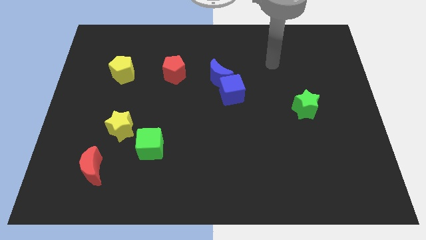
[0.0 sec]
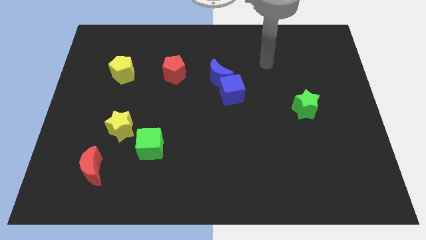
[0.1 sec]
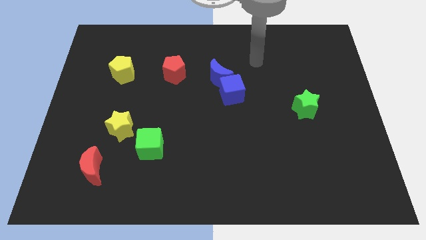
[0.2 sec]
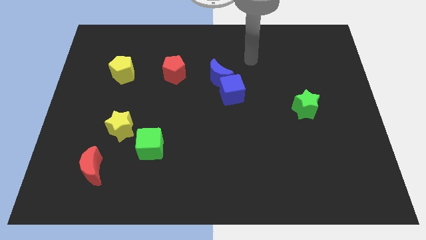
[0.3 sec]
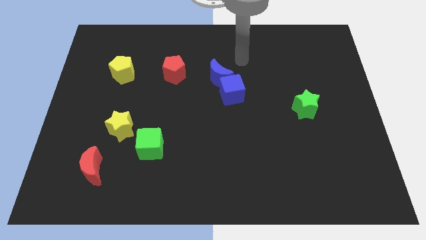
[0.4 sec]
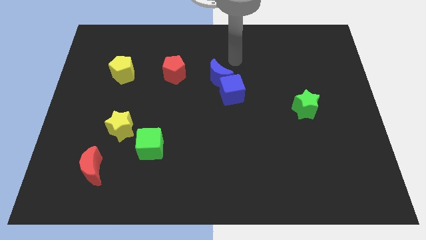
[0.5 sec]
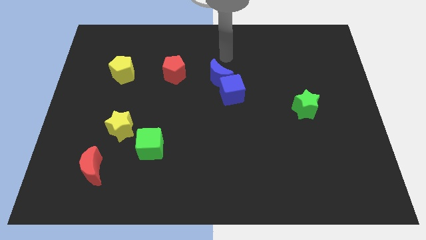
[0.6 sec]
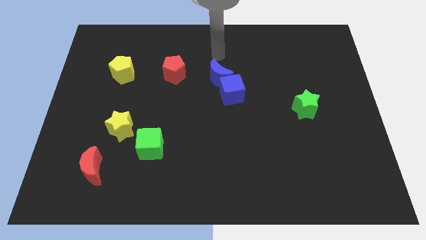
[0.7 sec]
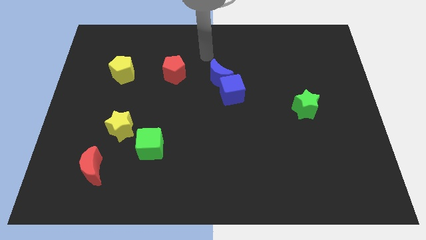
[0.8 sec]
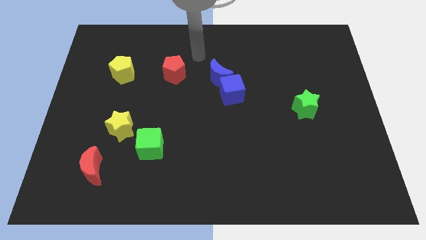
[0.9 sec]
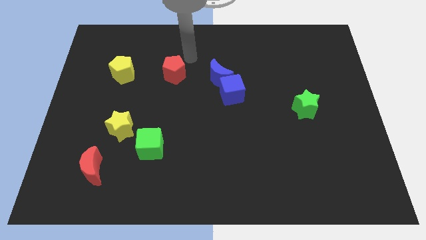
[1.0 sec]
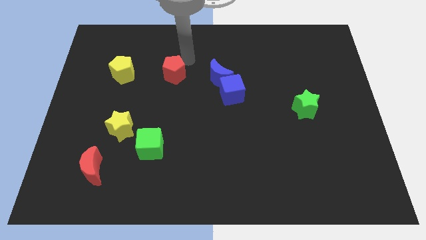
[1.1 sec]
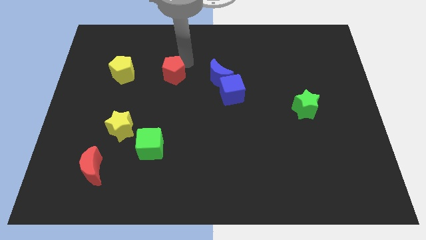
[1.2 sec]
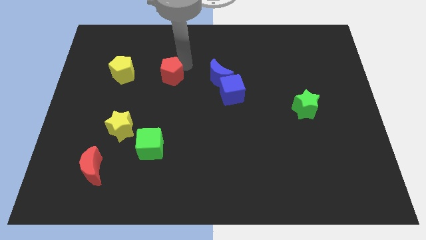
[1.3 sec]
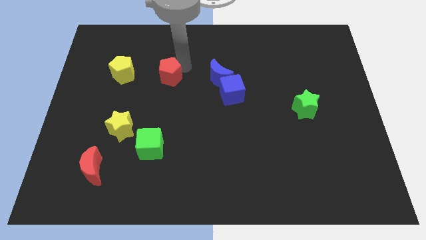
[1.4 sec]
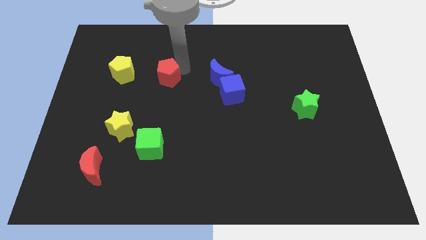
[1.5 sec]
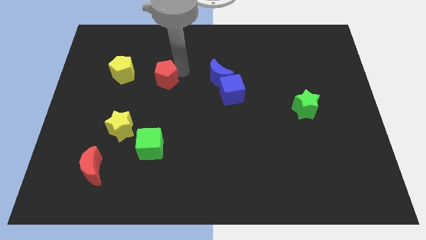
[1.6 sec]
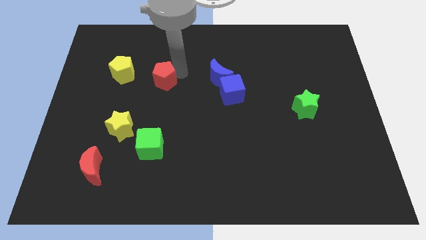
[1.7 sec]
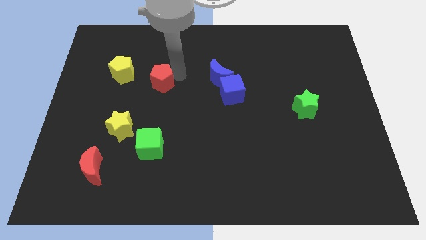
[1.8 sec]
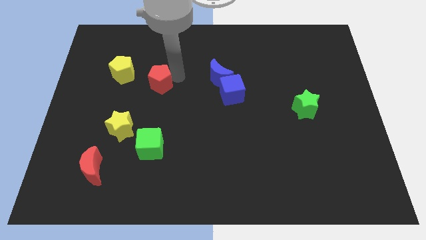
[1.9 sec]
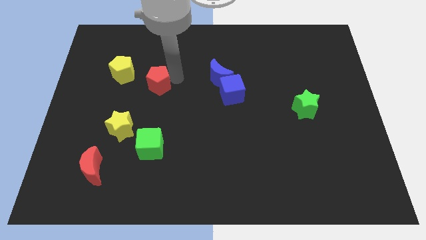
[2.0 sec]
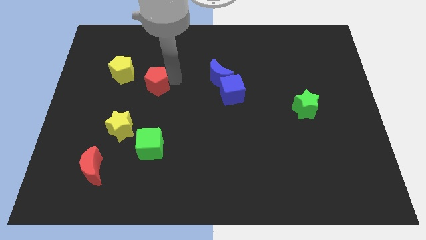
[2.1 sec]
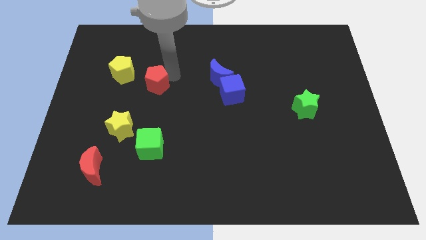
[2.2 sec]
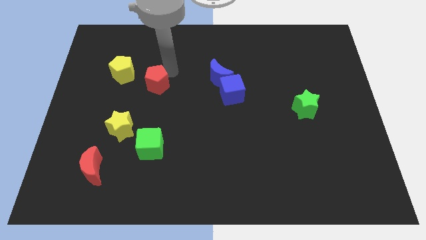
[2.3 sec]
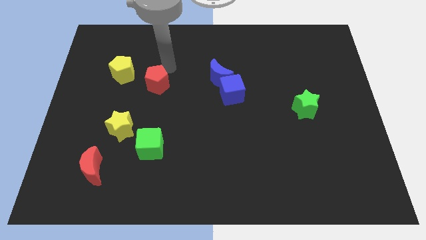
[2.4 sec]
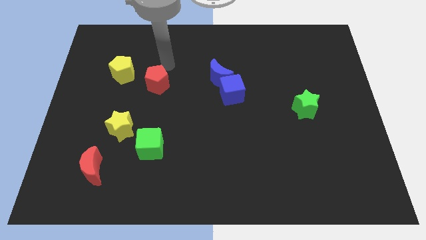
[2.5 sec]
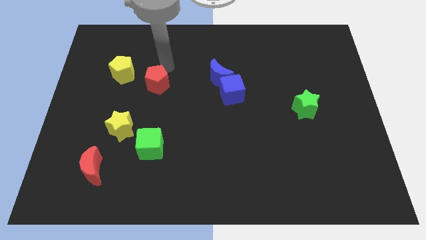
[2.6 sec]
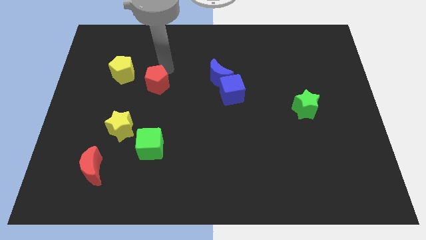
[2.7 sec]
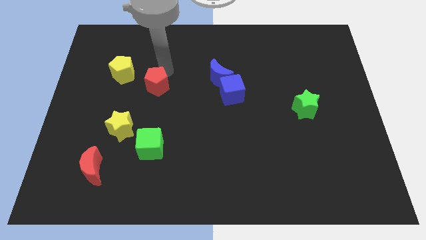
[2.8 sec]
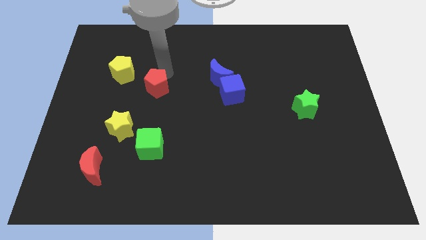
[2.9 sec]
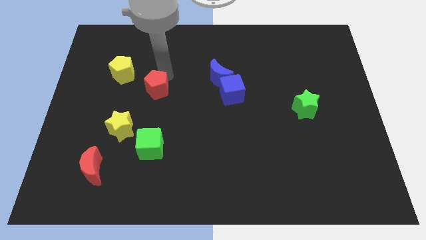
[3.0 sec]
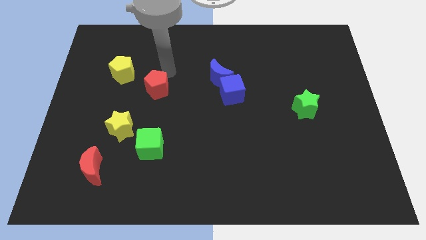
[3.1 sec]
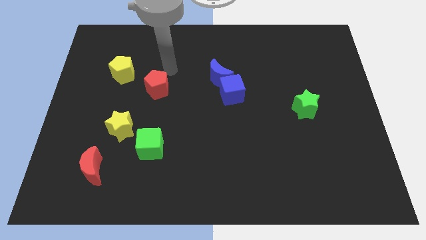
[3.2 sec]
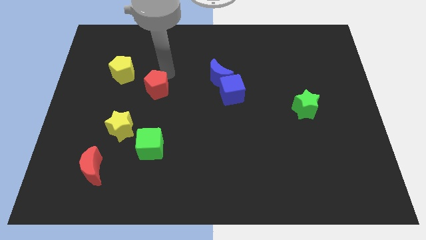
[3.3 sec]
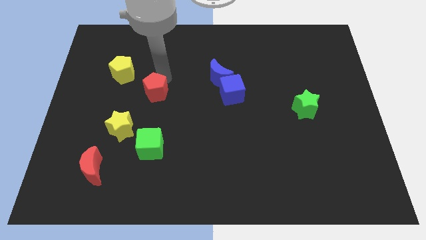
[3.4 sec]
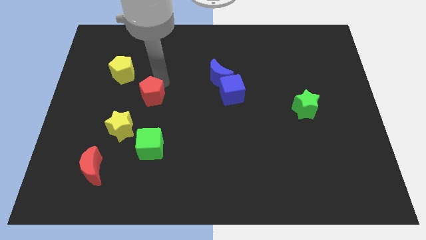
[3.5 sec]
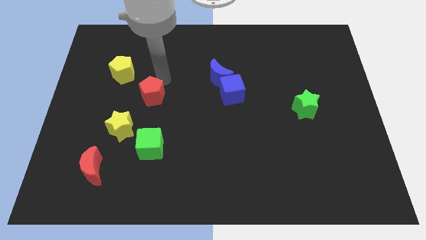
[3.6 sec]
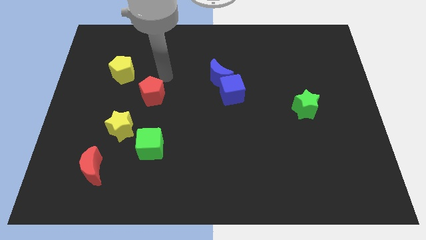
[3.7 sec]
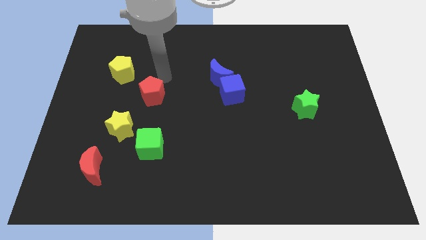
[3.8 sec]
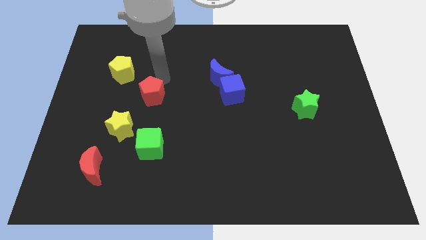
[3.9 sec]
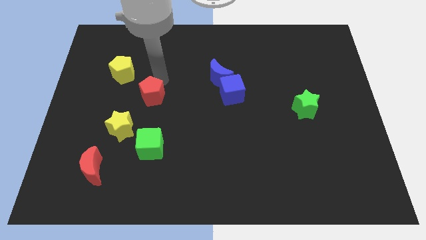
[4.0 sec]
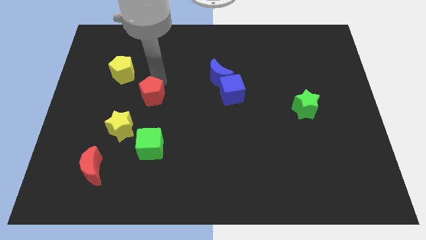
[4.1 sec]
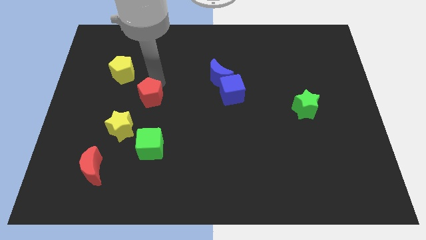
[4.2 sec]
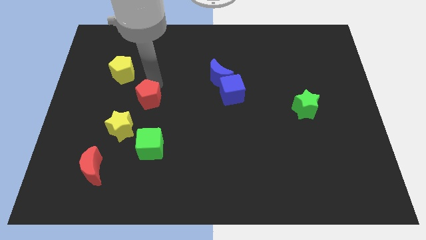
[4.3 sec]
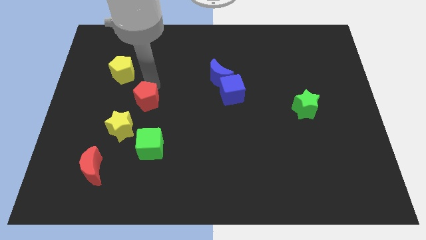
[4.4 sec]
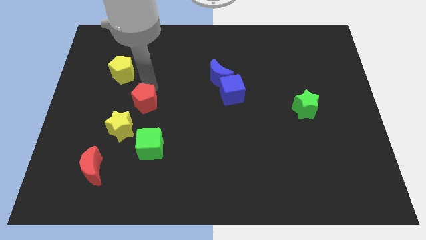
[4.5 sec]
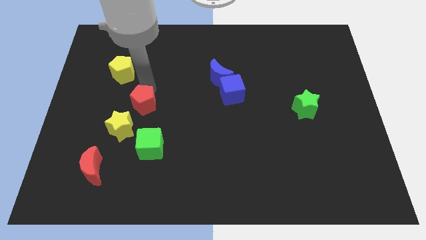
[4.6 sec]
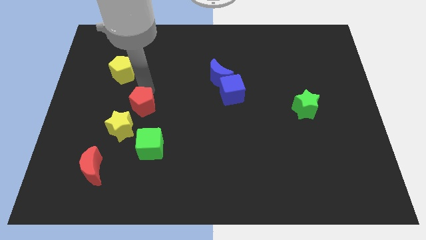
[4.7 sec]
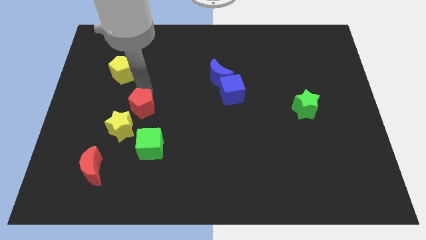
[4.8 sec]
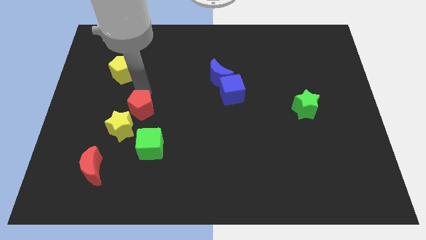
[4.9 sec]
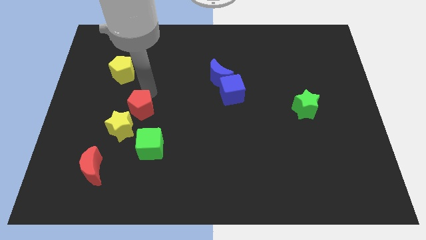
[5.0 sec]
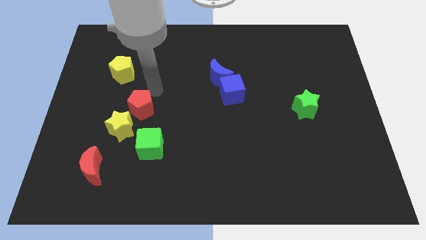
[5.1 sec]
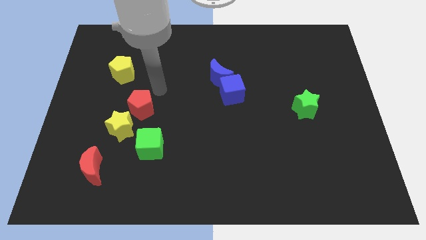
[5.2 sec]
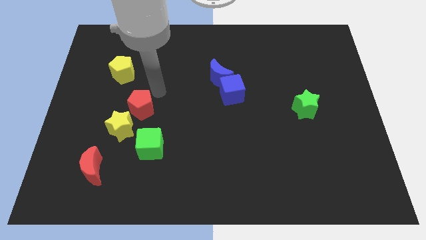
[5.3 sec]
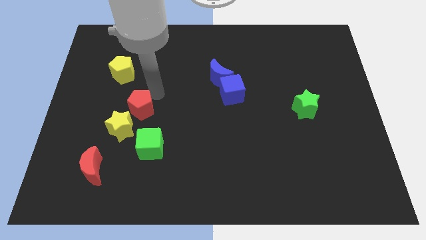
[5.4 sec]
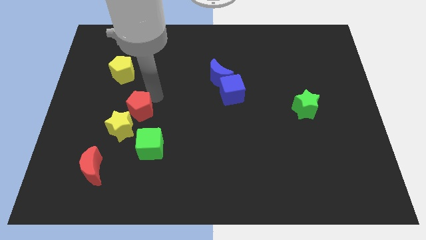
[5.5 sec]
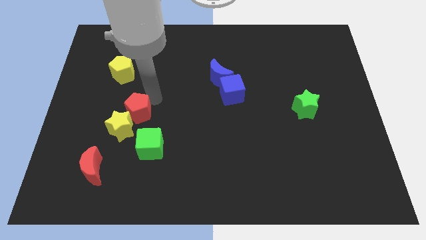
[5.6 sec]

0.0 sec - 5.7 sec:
slide the red pentagon towards the yellow star

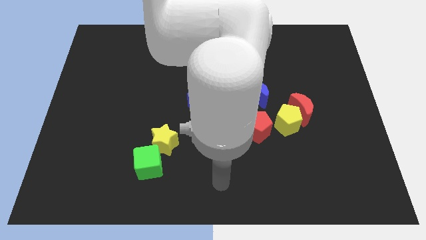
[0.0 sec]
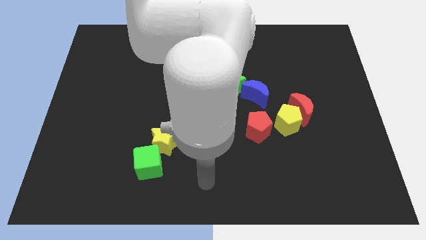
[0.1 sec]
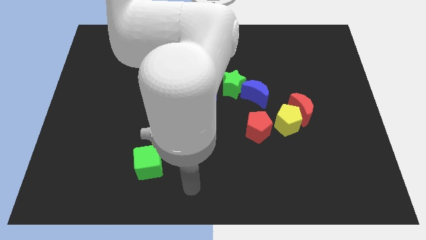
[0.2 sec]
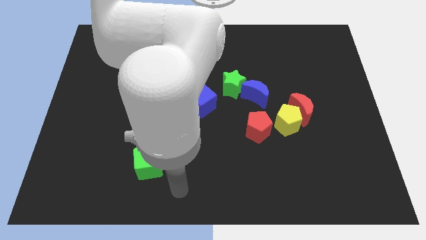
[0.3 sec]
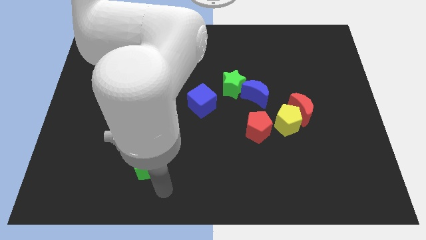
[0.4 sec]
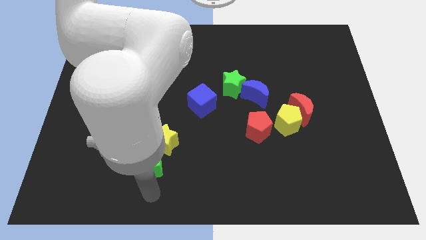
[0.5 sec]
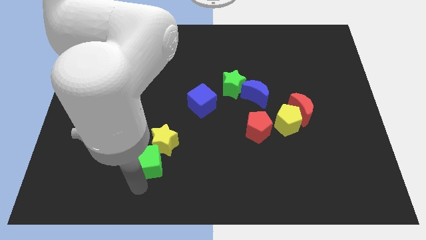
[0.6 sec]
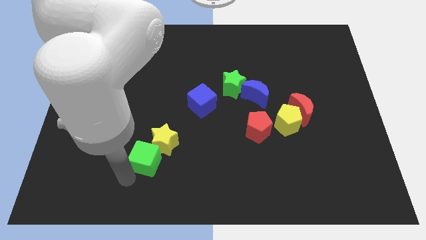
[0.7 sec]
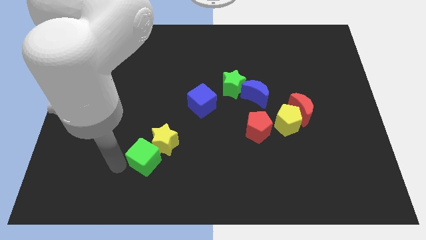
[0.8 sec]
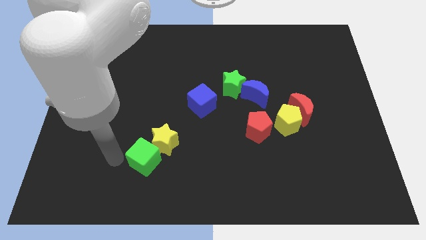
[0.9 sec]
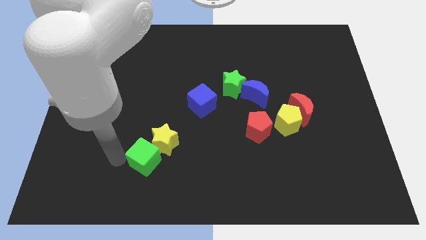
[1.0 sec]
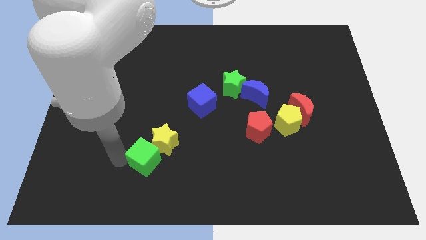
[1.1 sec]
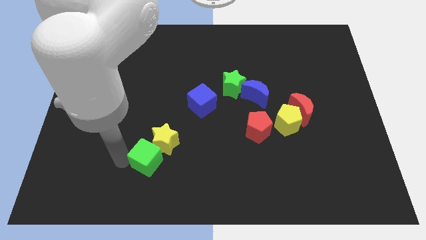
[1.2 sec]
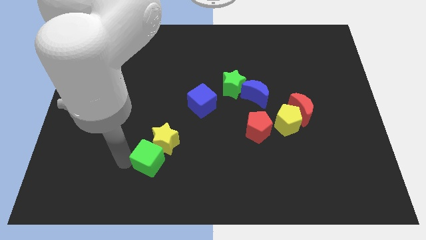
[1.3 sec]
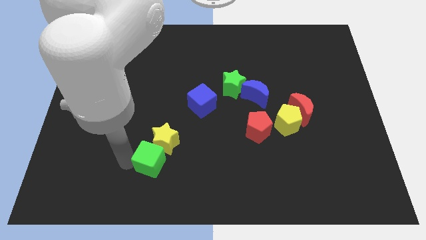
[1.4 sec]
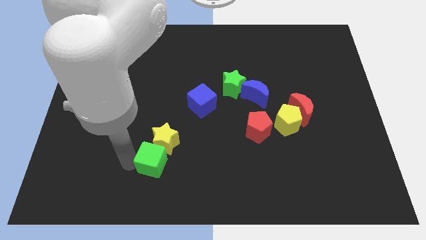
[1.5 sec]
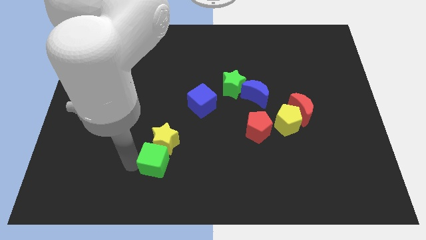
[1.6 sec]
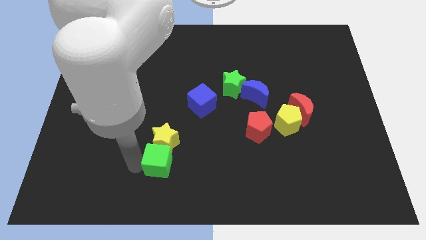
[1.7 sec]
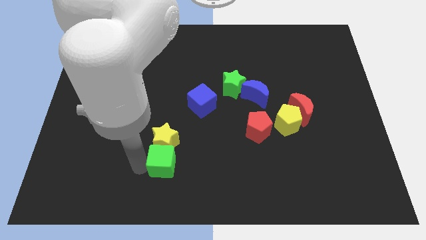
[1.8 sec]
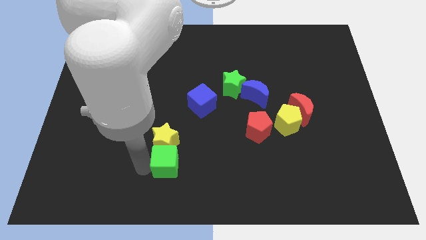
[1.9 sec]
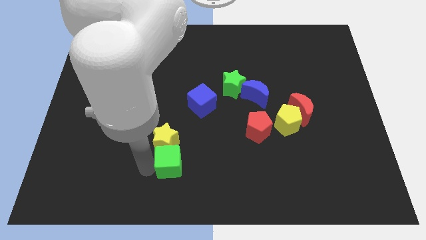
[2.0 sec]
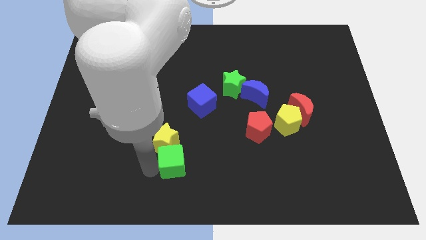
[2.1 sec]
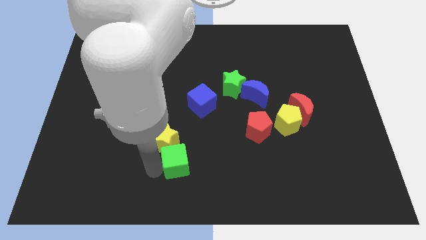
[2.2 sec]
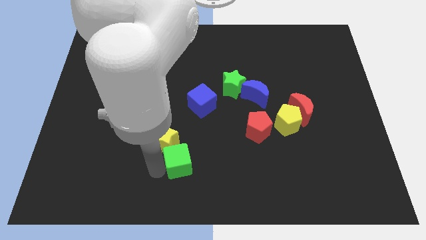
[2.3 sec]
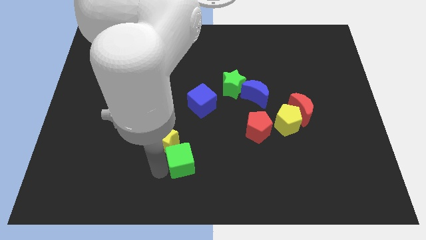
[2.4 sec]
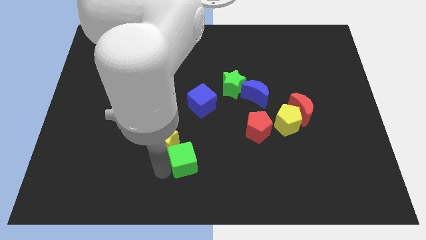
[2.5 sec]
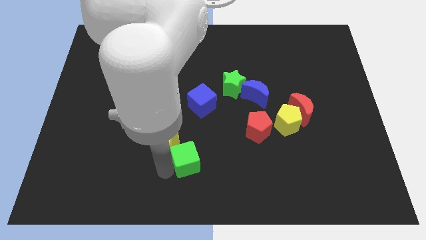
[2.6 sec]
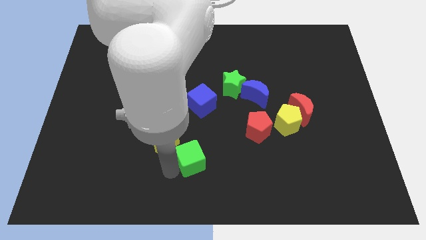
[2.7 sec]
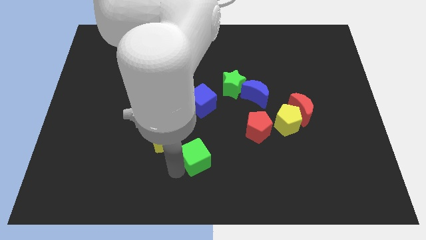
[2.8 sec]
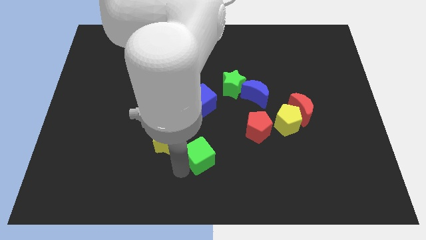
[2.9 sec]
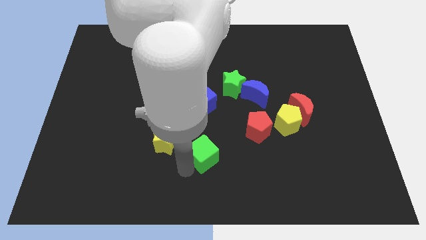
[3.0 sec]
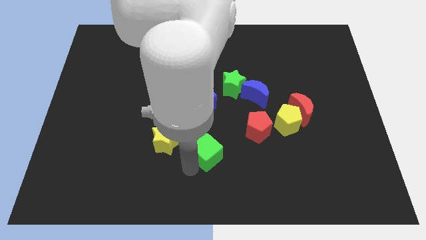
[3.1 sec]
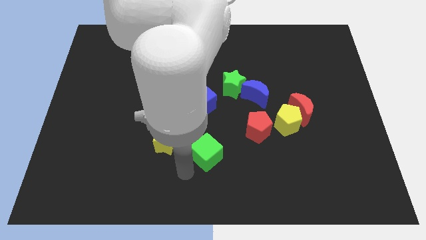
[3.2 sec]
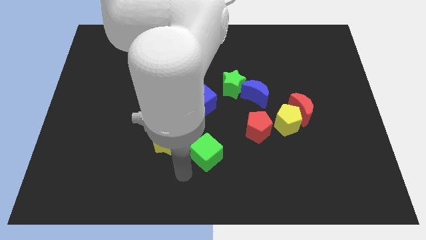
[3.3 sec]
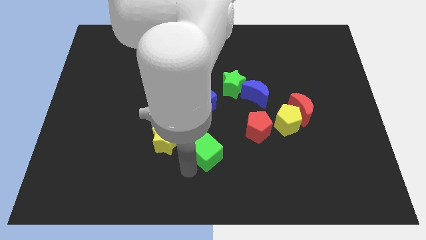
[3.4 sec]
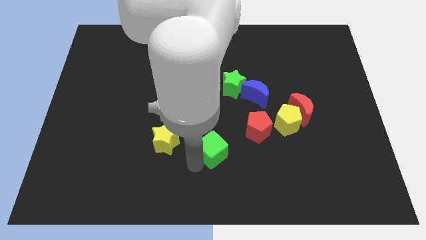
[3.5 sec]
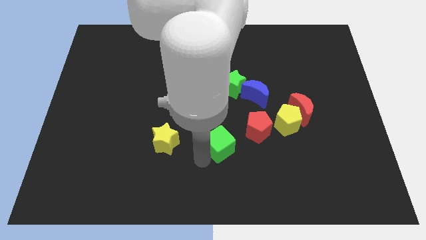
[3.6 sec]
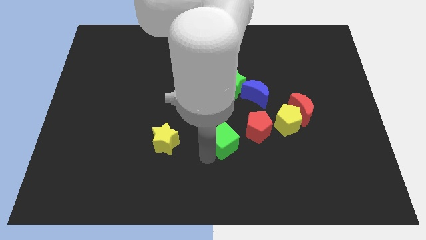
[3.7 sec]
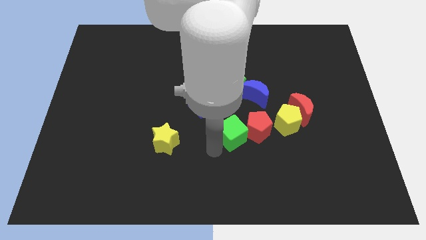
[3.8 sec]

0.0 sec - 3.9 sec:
slide the green cube close to the red pentagon
